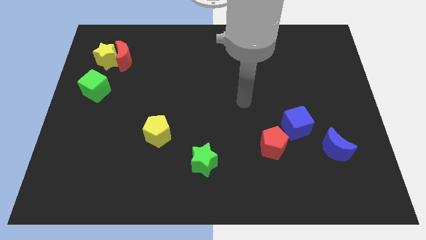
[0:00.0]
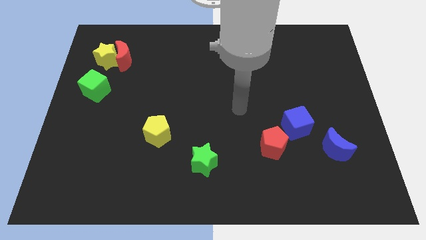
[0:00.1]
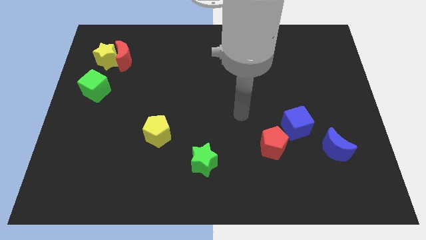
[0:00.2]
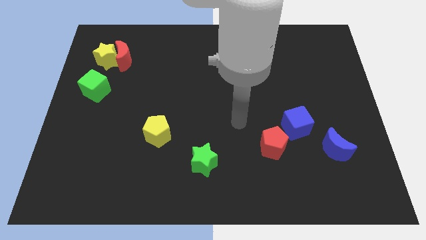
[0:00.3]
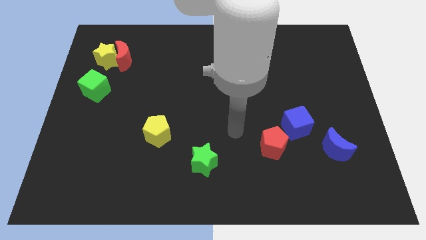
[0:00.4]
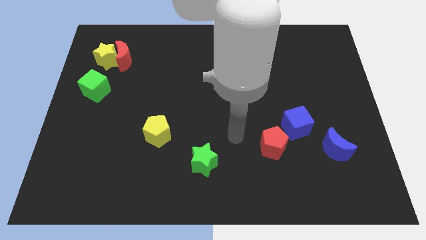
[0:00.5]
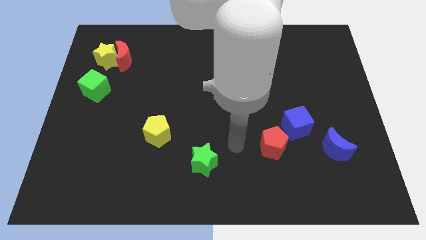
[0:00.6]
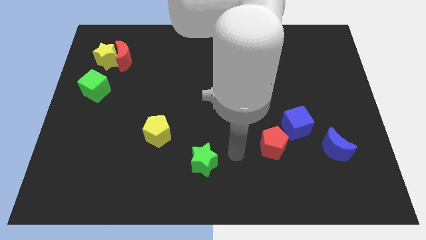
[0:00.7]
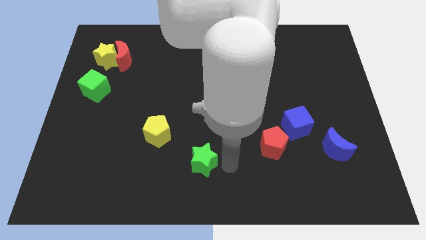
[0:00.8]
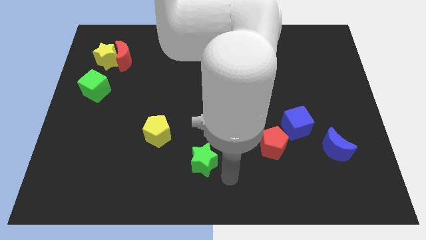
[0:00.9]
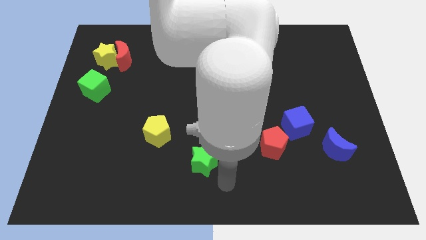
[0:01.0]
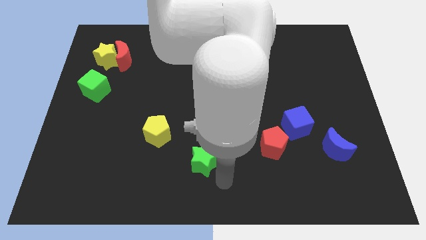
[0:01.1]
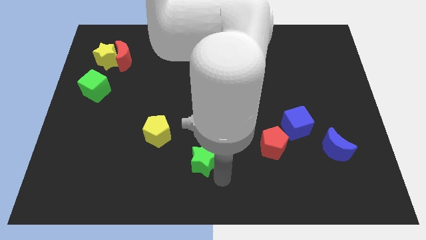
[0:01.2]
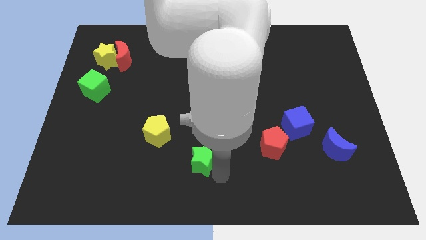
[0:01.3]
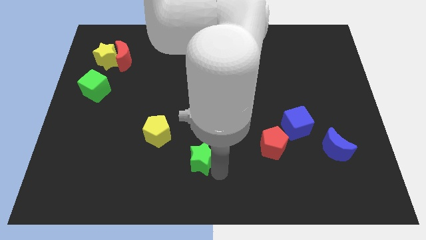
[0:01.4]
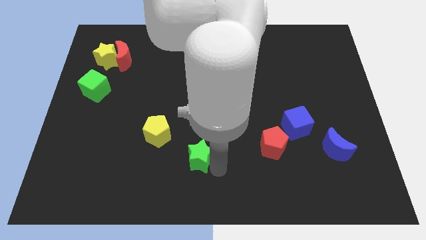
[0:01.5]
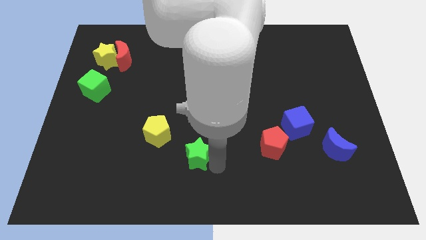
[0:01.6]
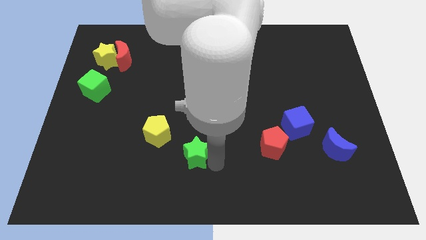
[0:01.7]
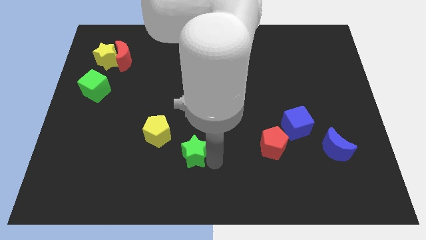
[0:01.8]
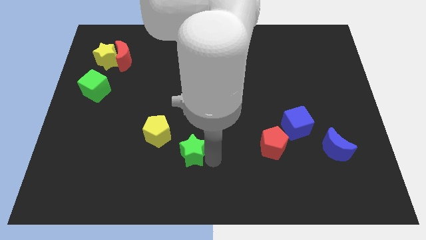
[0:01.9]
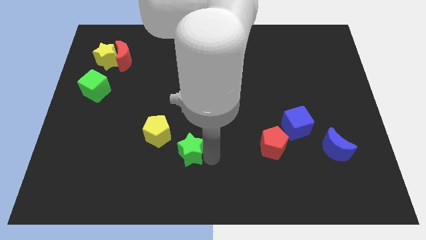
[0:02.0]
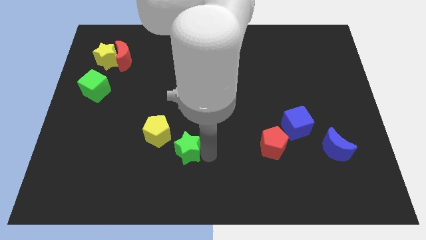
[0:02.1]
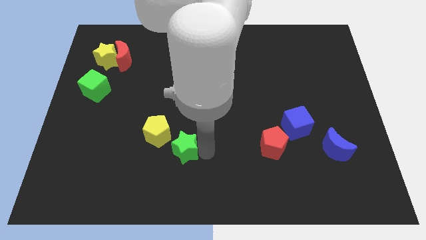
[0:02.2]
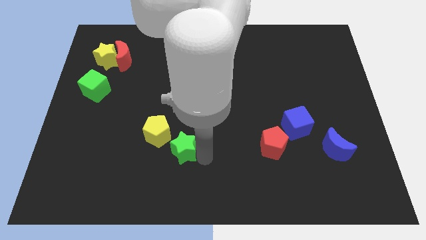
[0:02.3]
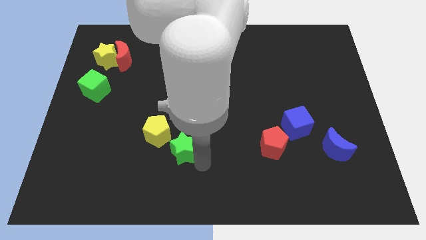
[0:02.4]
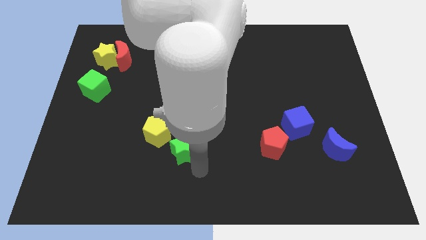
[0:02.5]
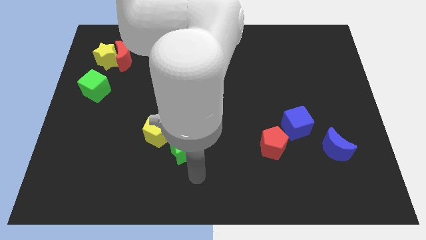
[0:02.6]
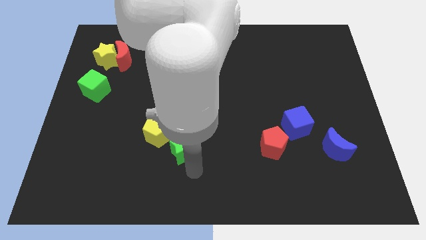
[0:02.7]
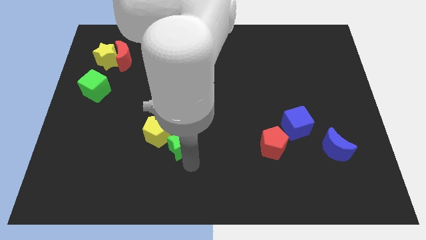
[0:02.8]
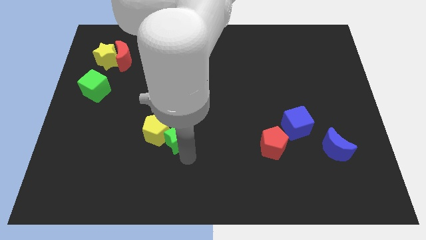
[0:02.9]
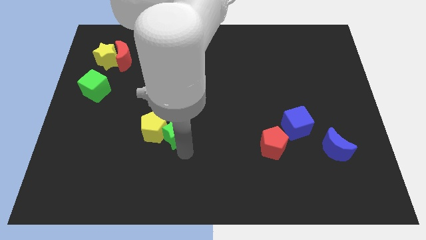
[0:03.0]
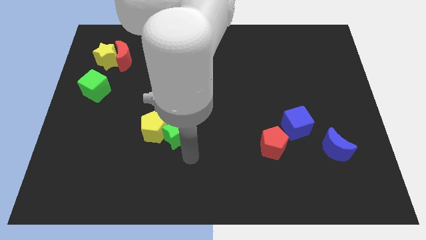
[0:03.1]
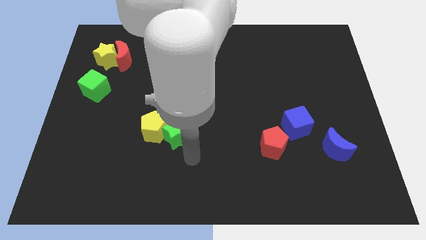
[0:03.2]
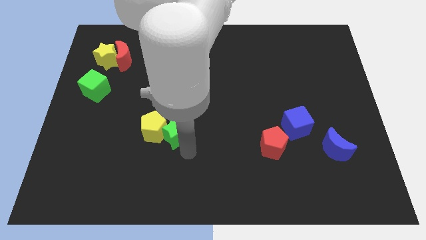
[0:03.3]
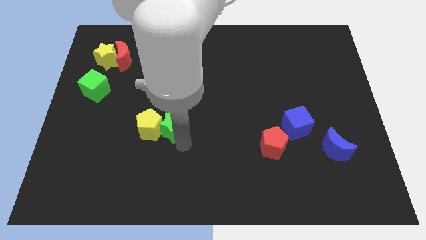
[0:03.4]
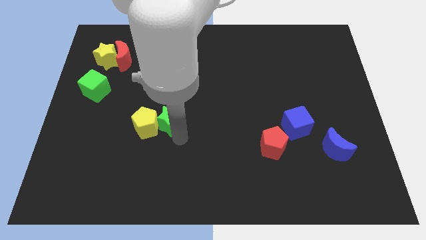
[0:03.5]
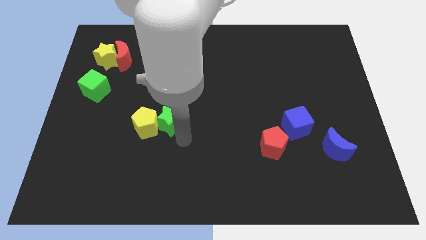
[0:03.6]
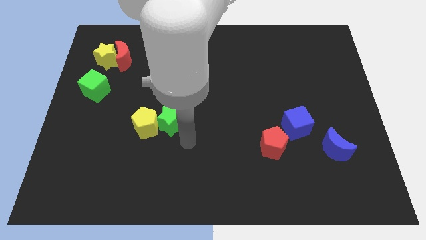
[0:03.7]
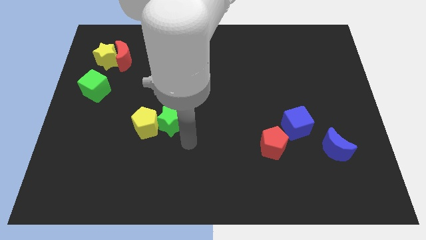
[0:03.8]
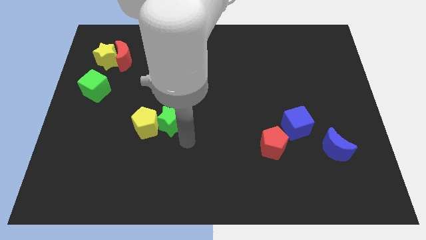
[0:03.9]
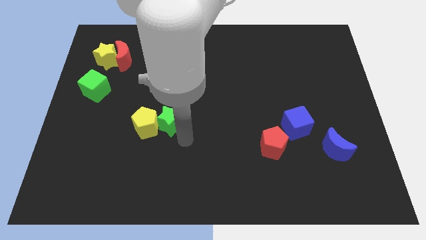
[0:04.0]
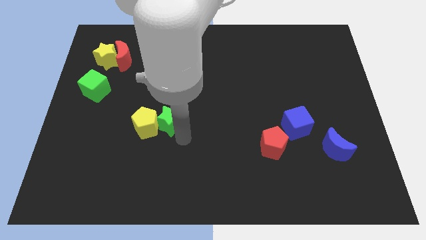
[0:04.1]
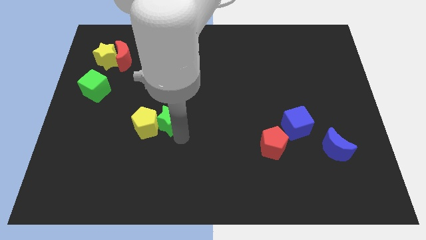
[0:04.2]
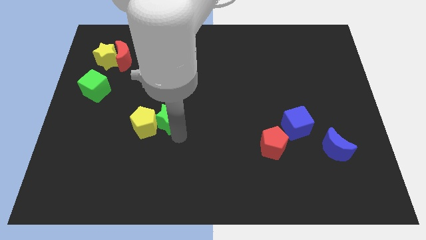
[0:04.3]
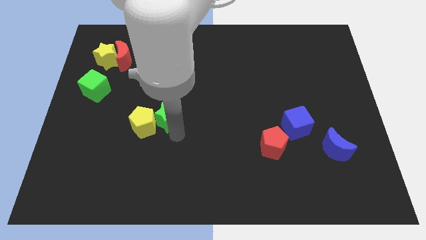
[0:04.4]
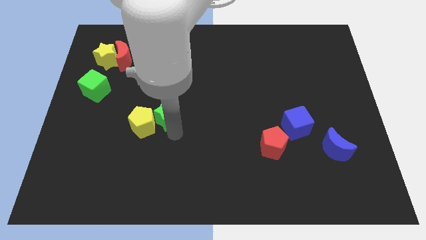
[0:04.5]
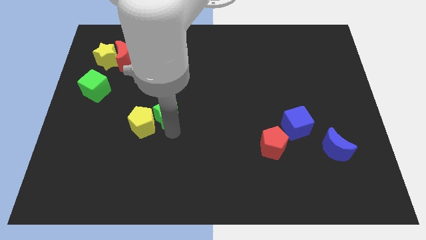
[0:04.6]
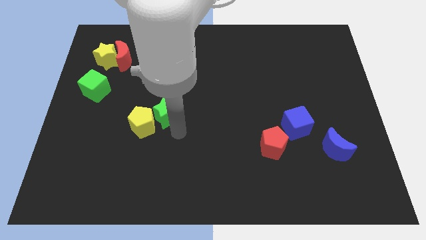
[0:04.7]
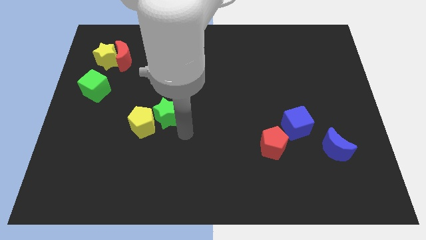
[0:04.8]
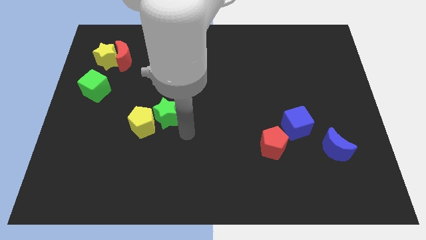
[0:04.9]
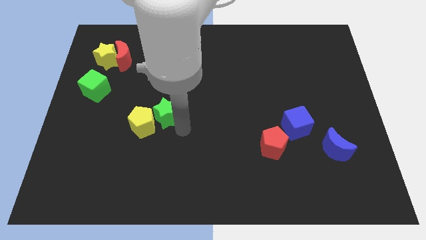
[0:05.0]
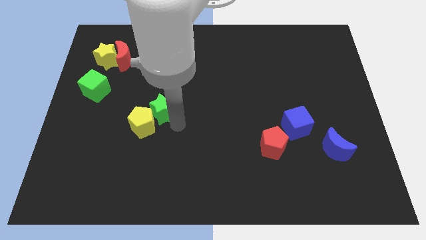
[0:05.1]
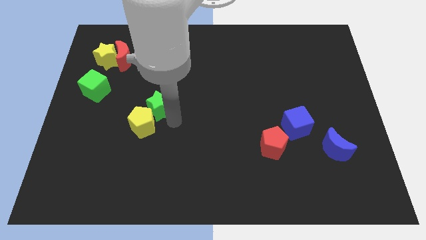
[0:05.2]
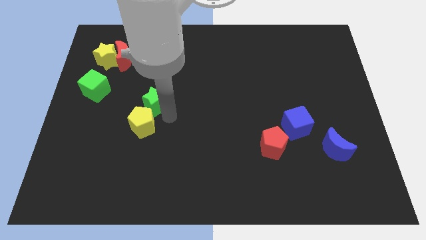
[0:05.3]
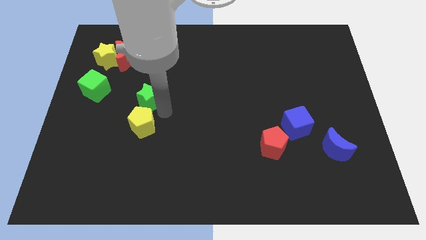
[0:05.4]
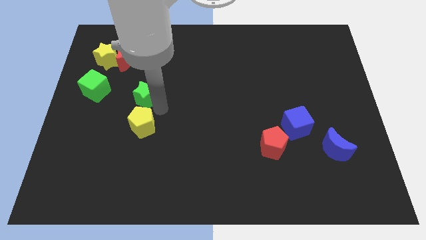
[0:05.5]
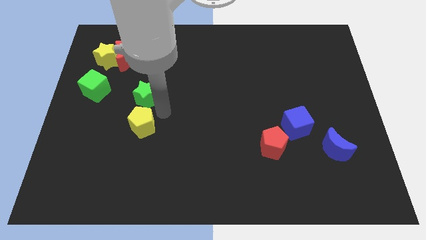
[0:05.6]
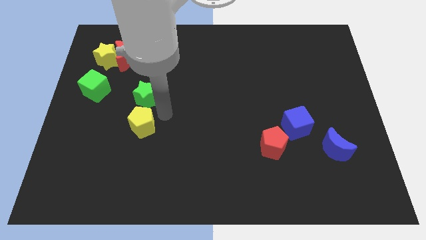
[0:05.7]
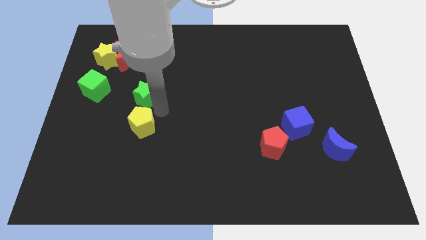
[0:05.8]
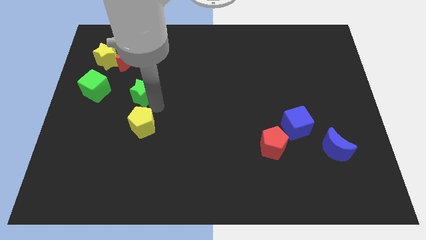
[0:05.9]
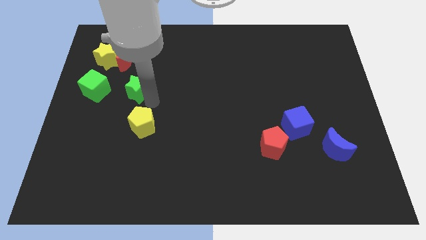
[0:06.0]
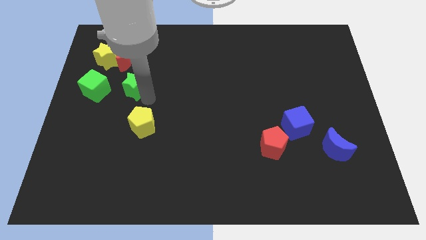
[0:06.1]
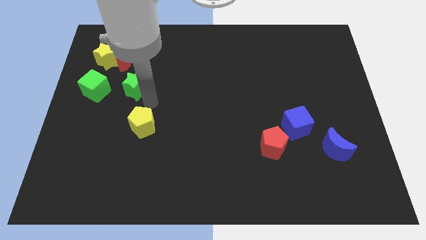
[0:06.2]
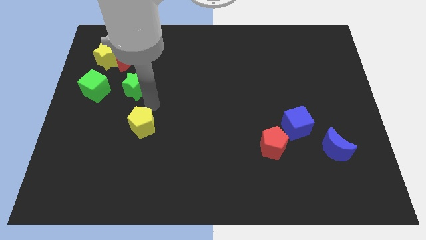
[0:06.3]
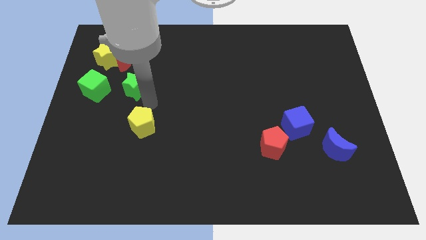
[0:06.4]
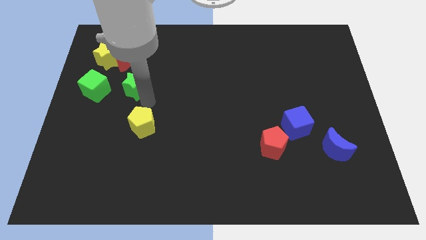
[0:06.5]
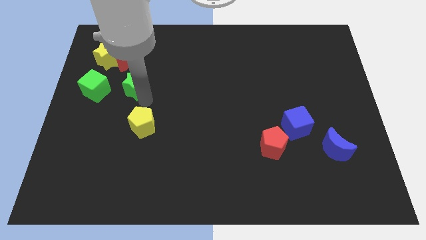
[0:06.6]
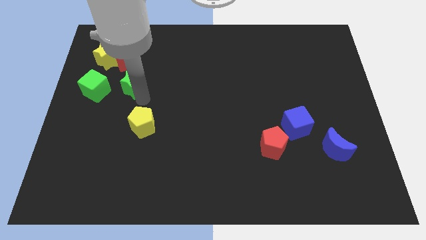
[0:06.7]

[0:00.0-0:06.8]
slide the green star diagonally down and to the right of the yellow star

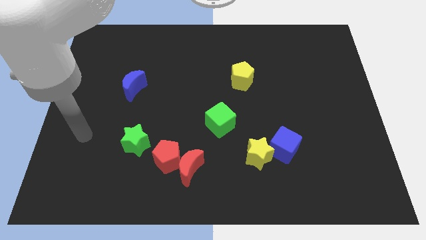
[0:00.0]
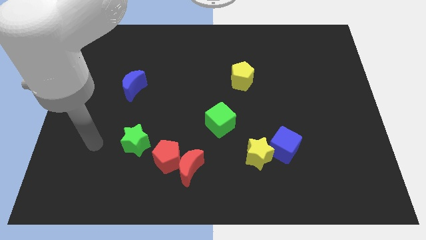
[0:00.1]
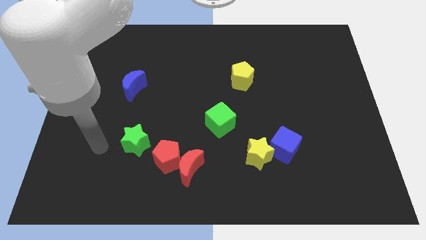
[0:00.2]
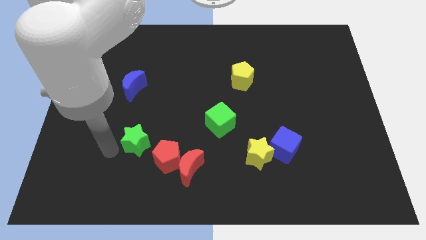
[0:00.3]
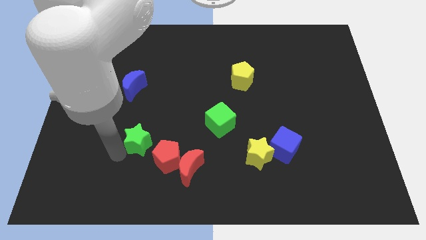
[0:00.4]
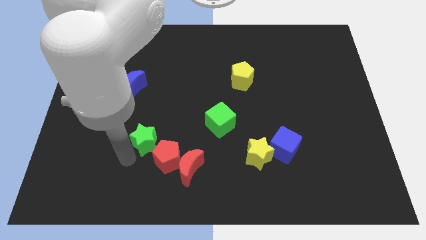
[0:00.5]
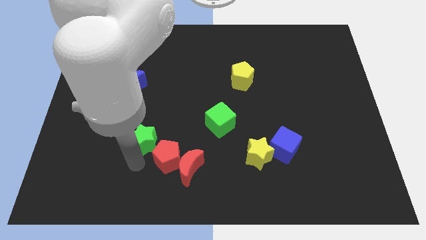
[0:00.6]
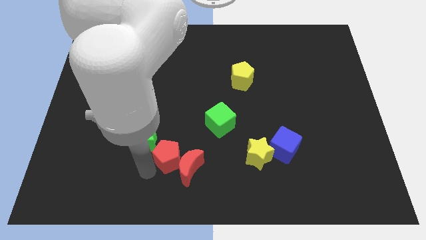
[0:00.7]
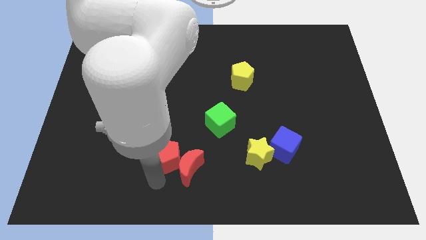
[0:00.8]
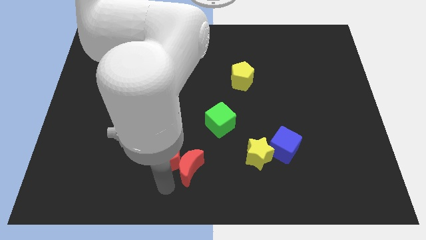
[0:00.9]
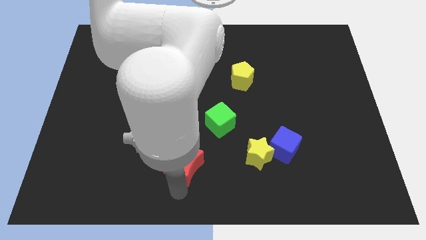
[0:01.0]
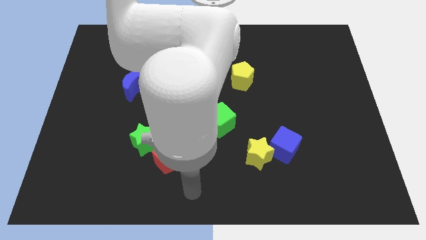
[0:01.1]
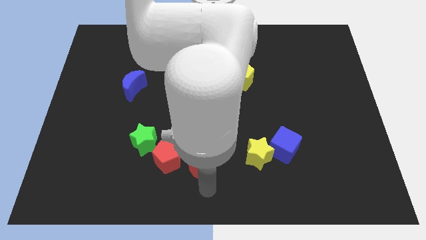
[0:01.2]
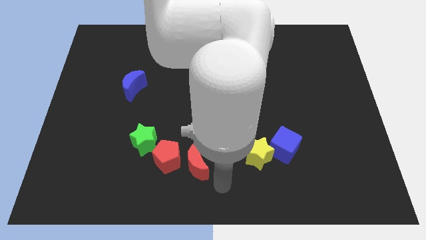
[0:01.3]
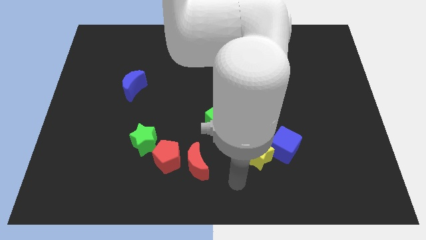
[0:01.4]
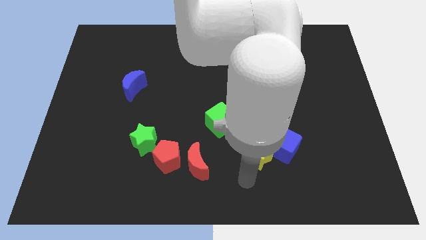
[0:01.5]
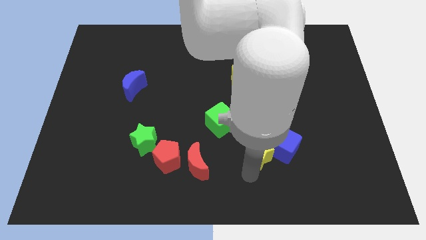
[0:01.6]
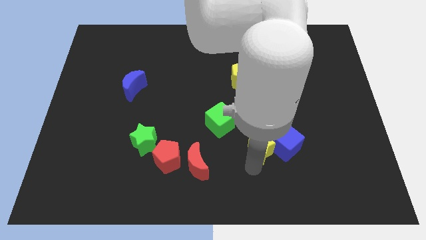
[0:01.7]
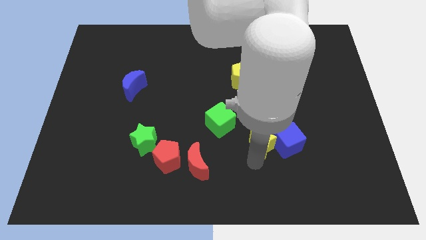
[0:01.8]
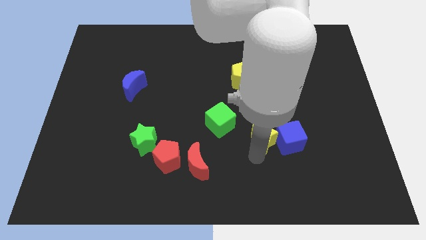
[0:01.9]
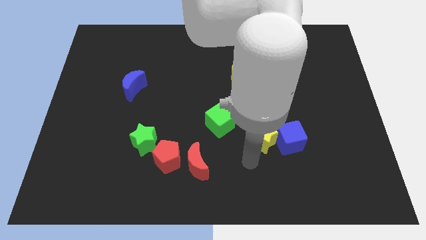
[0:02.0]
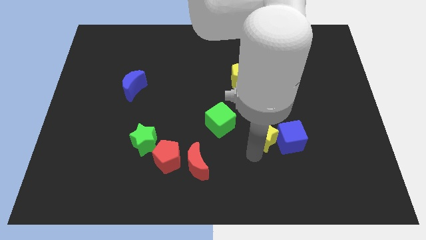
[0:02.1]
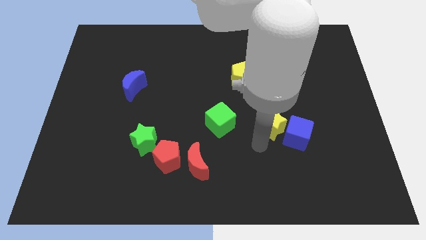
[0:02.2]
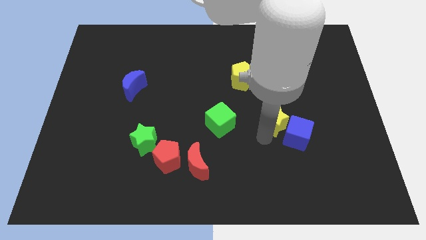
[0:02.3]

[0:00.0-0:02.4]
put the yellow star to the top side of the blue cube
